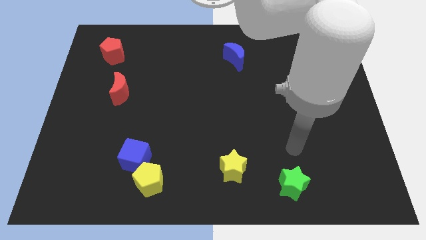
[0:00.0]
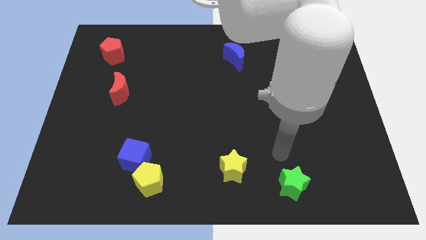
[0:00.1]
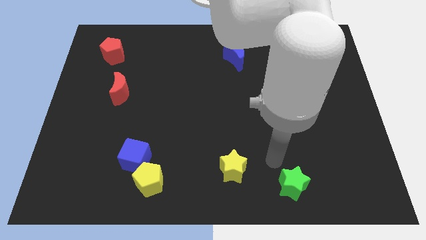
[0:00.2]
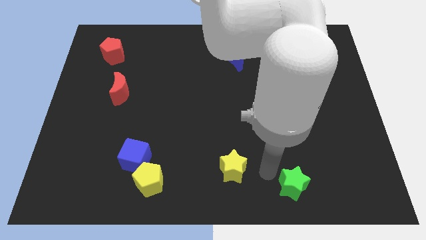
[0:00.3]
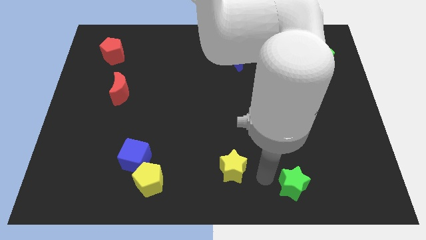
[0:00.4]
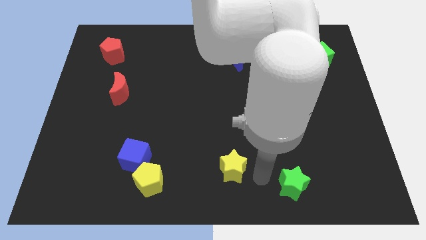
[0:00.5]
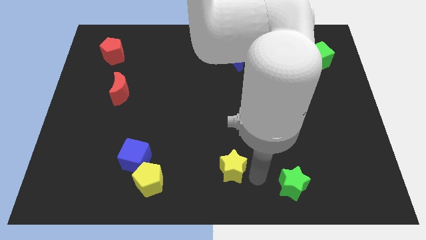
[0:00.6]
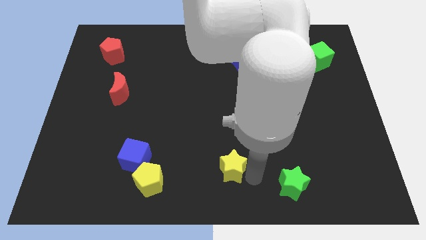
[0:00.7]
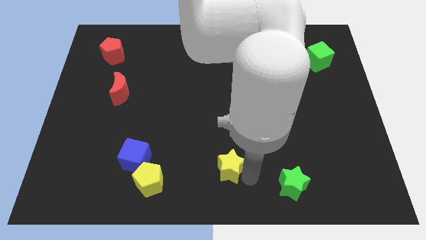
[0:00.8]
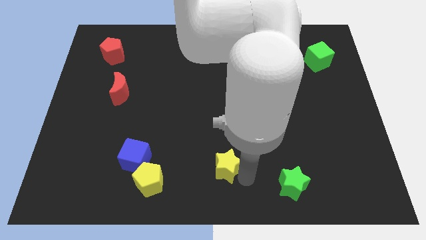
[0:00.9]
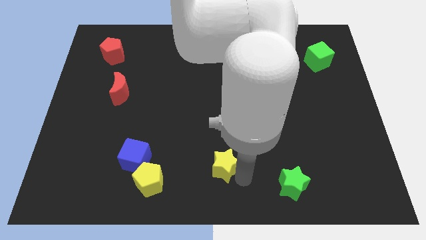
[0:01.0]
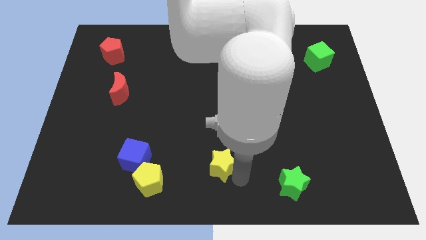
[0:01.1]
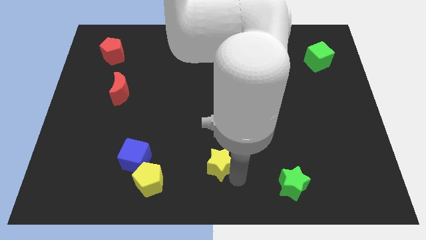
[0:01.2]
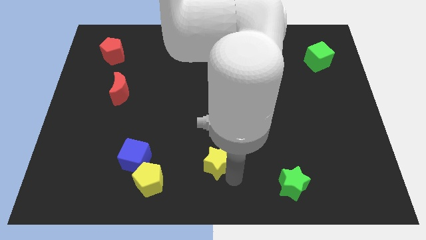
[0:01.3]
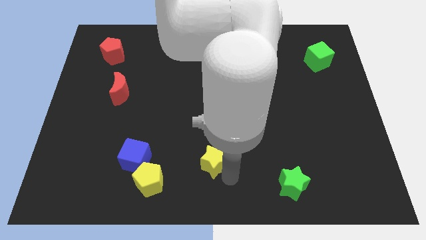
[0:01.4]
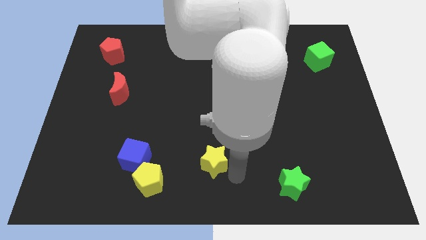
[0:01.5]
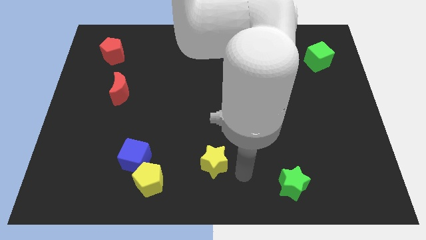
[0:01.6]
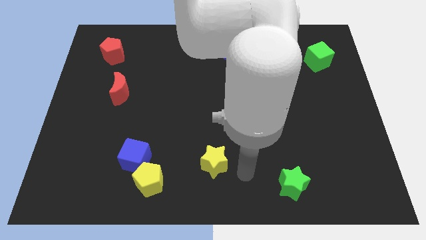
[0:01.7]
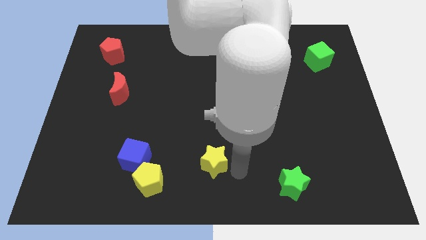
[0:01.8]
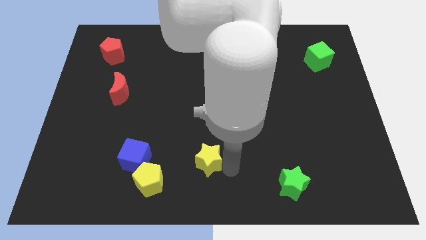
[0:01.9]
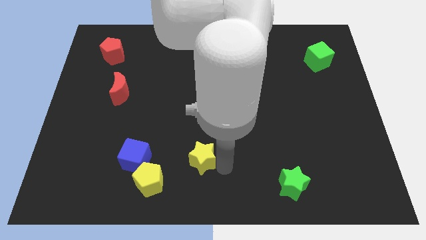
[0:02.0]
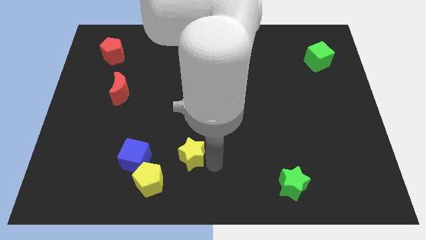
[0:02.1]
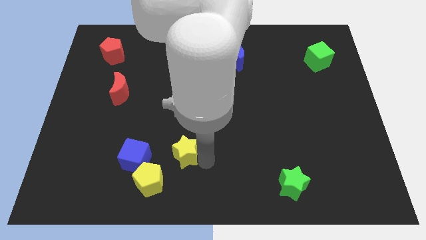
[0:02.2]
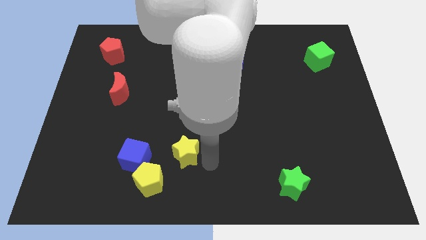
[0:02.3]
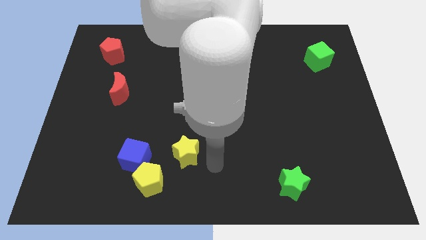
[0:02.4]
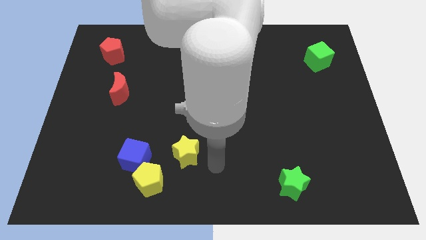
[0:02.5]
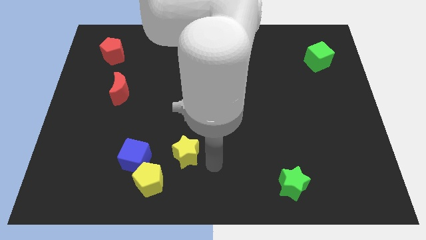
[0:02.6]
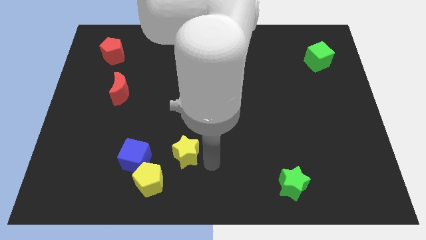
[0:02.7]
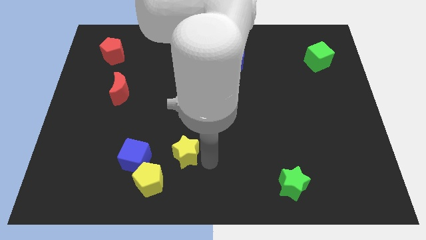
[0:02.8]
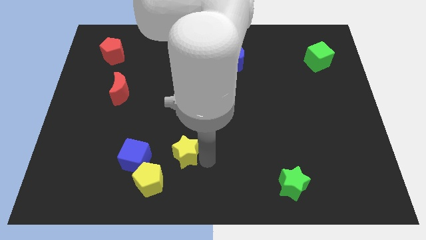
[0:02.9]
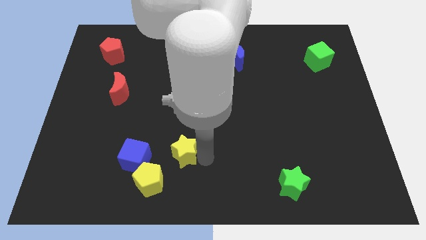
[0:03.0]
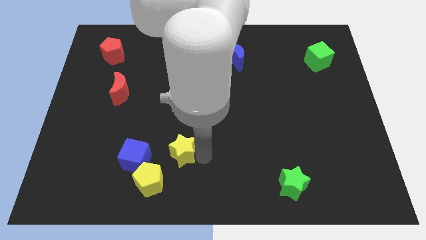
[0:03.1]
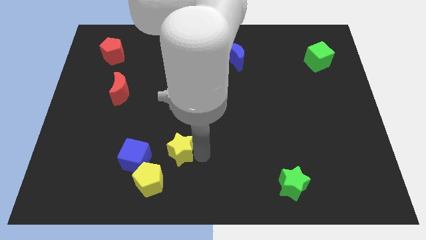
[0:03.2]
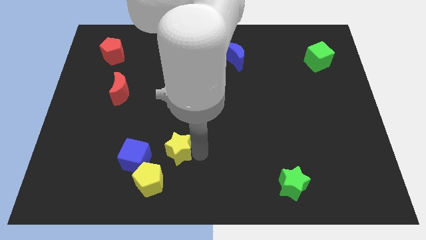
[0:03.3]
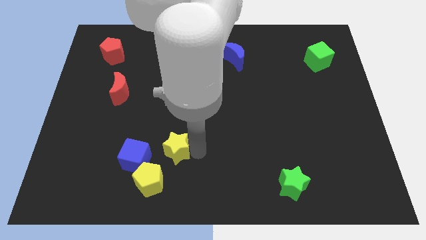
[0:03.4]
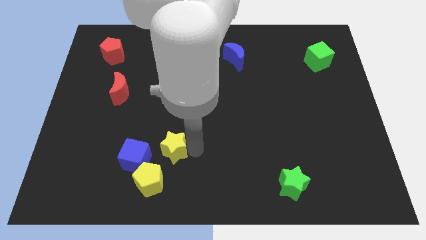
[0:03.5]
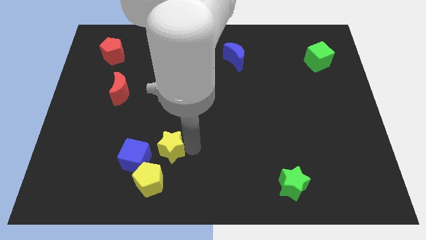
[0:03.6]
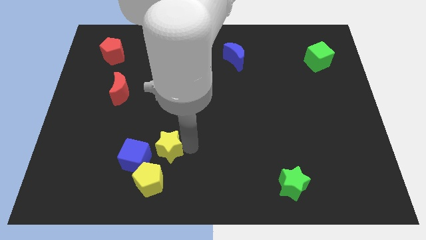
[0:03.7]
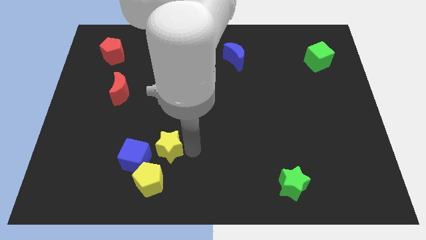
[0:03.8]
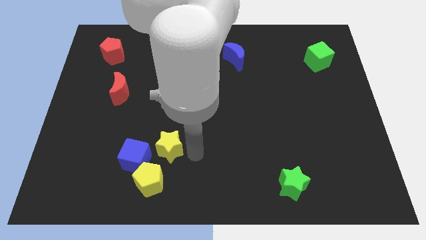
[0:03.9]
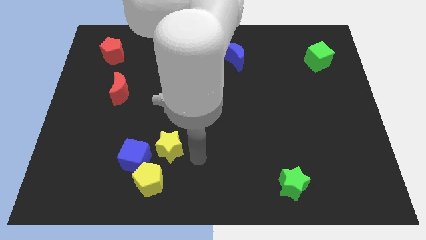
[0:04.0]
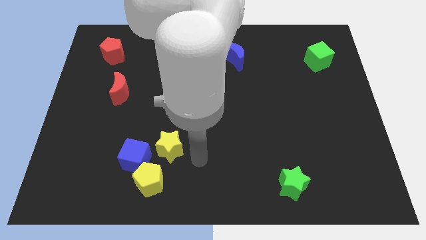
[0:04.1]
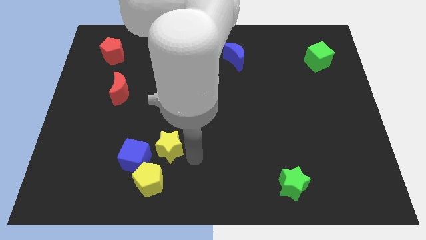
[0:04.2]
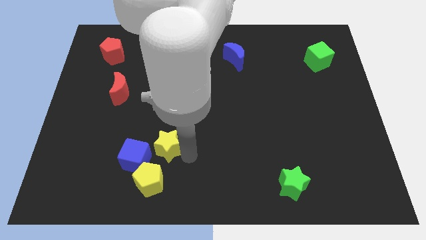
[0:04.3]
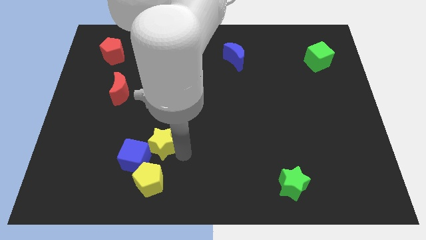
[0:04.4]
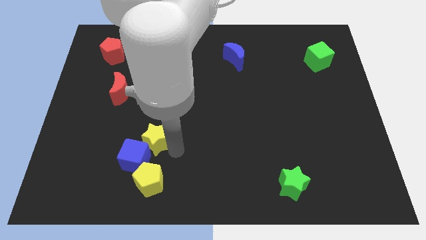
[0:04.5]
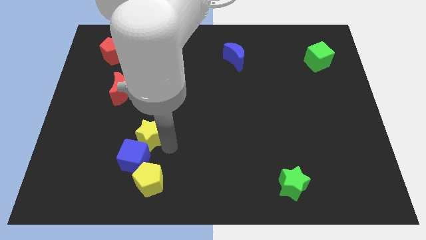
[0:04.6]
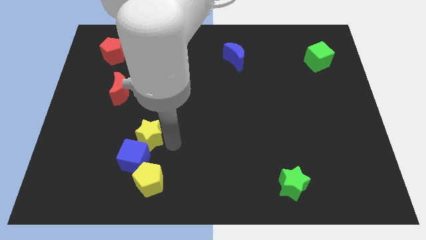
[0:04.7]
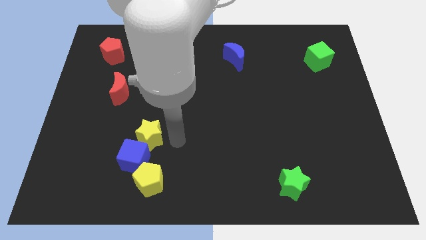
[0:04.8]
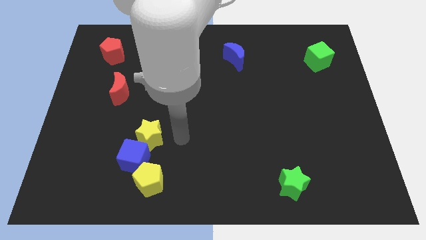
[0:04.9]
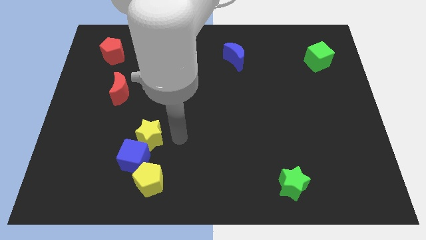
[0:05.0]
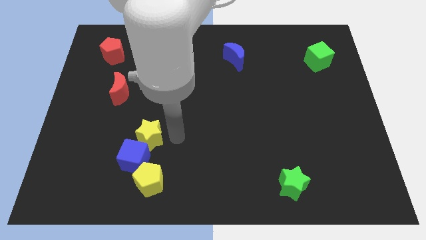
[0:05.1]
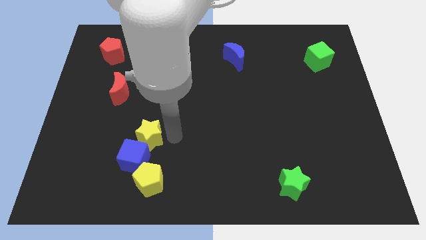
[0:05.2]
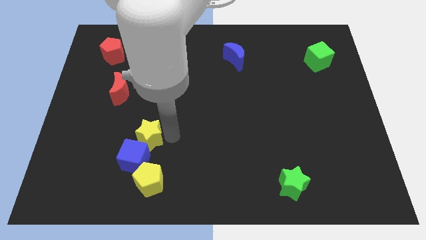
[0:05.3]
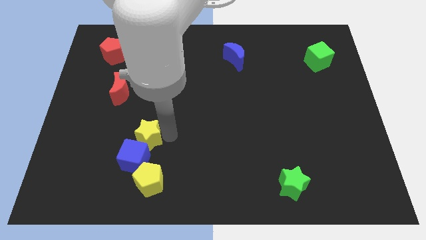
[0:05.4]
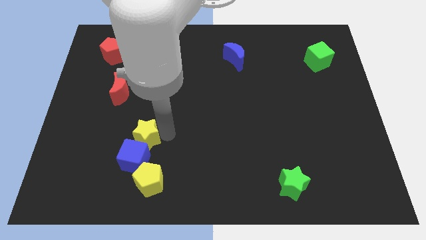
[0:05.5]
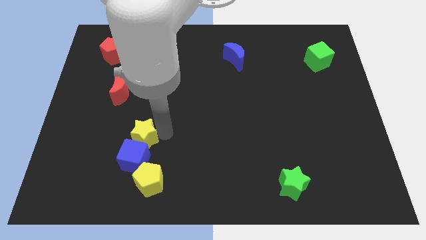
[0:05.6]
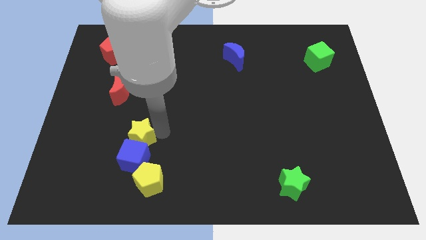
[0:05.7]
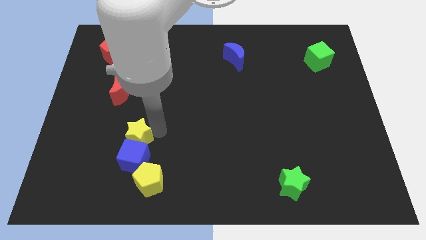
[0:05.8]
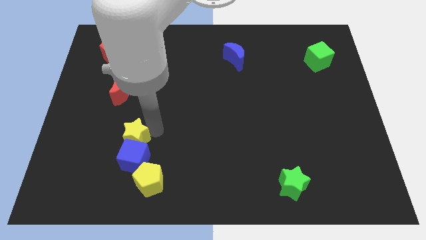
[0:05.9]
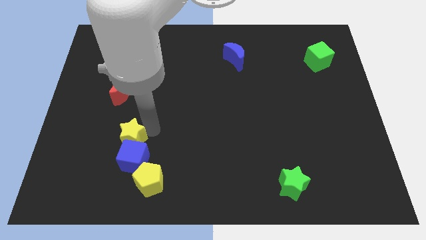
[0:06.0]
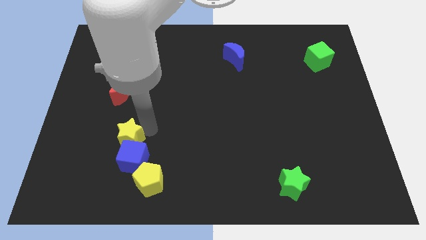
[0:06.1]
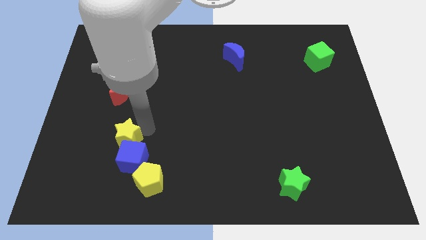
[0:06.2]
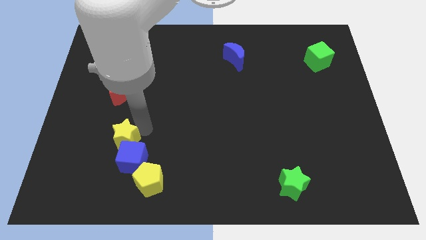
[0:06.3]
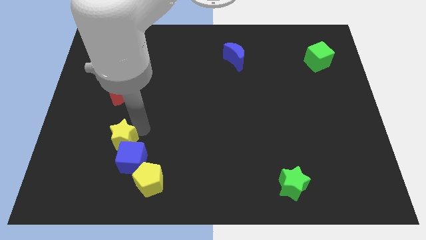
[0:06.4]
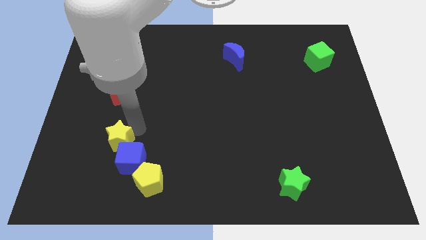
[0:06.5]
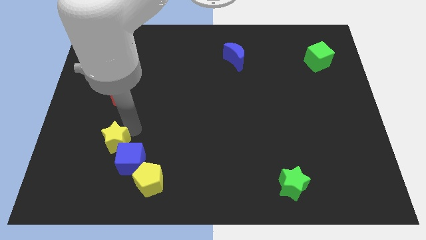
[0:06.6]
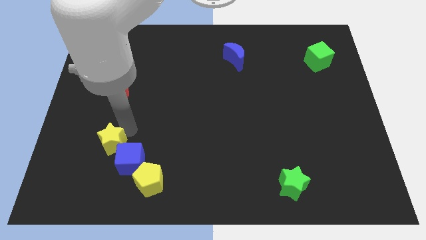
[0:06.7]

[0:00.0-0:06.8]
slide the yellow star to the left side of the blue cube
